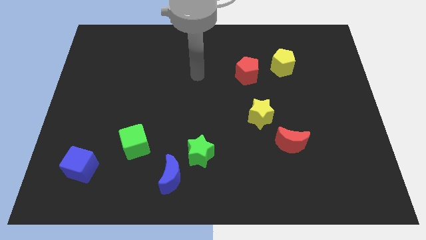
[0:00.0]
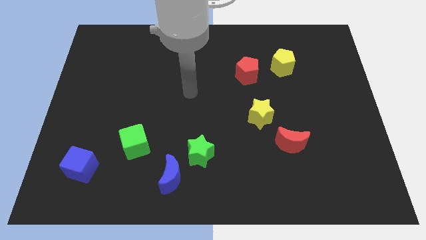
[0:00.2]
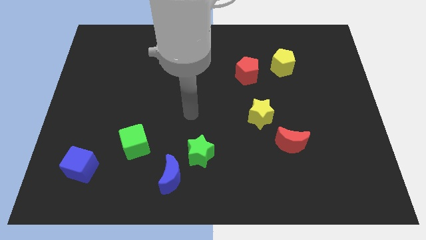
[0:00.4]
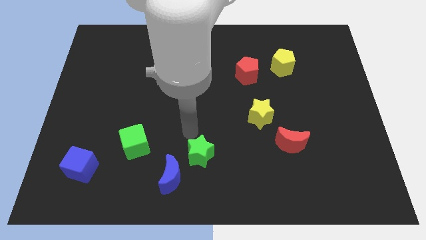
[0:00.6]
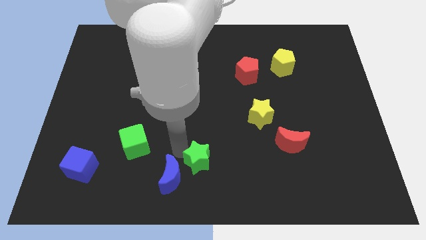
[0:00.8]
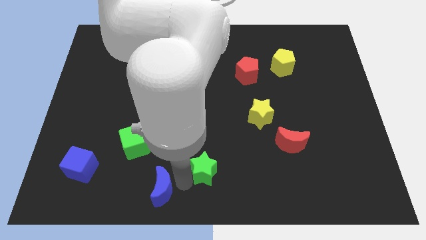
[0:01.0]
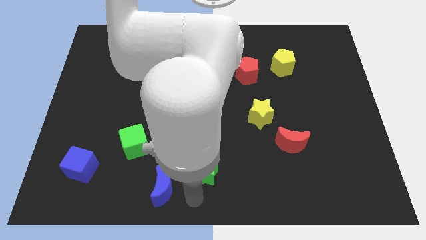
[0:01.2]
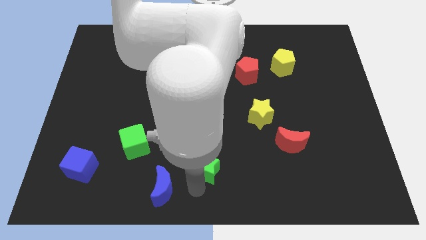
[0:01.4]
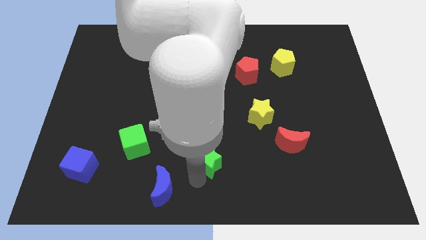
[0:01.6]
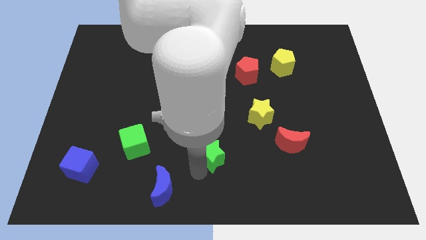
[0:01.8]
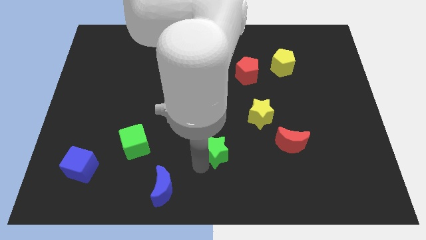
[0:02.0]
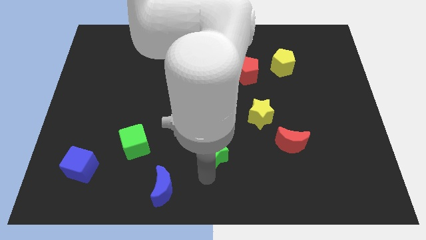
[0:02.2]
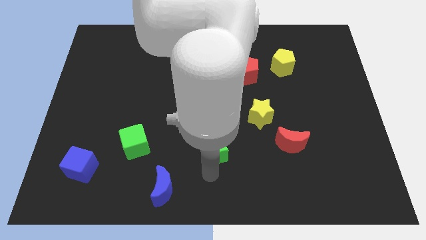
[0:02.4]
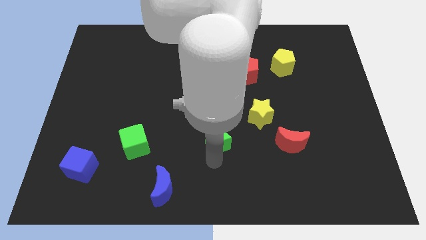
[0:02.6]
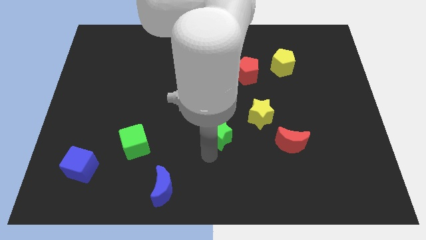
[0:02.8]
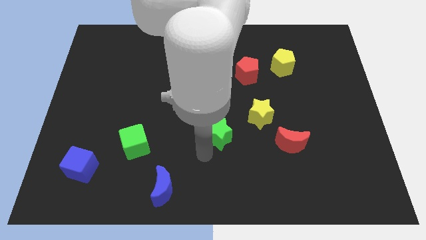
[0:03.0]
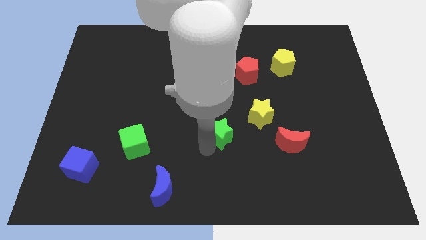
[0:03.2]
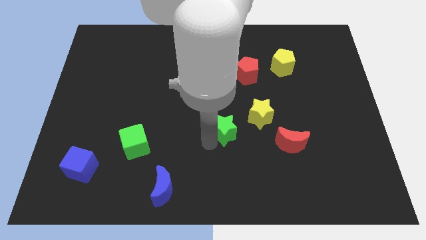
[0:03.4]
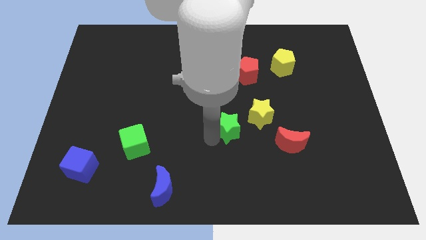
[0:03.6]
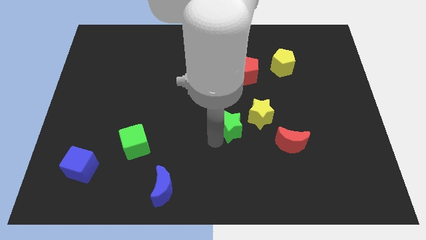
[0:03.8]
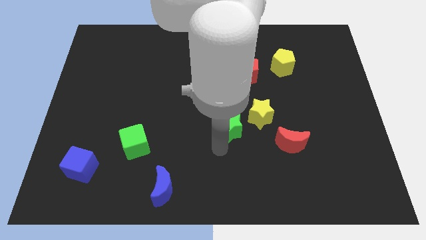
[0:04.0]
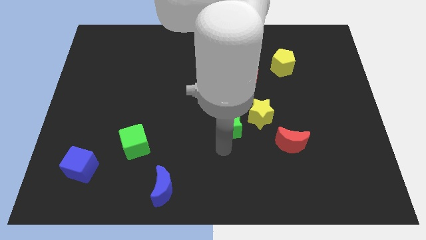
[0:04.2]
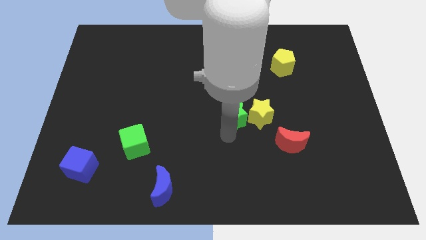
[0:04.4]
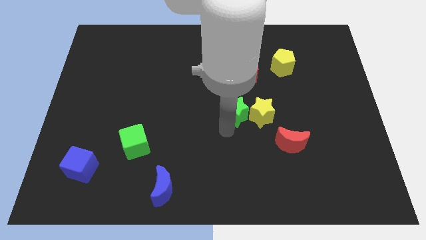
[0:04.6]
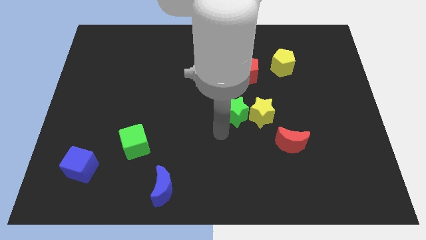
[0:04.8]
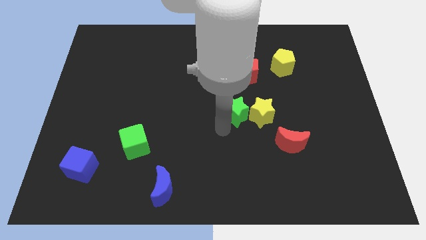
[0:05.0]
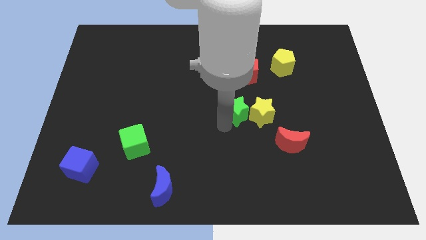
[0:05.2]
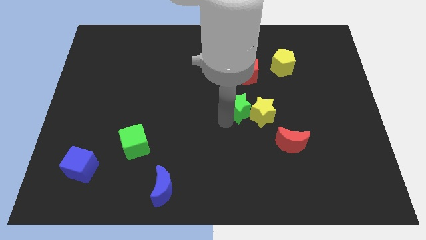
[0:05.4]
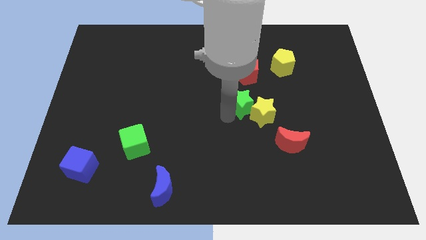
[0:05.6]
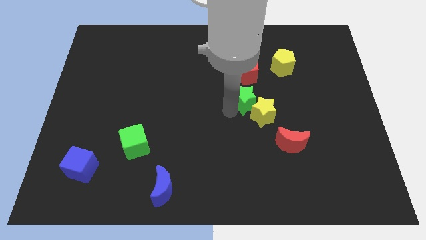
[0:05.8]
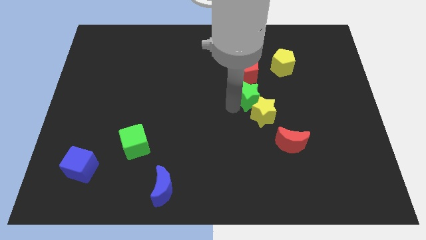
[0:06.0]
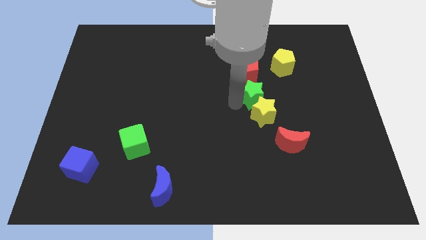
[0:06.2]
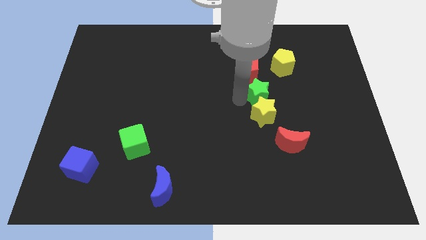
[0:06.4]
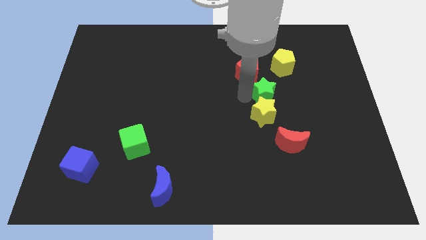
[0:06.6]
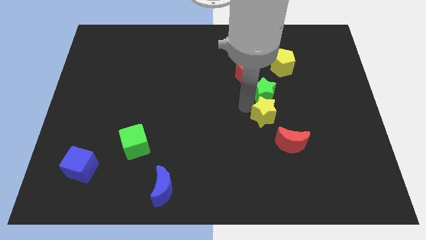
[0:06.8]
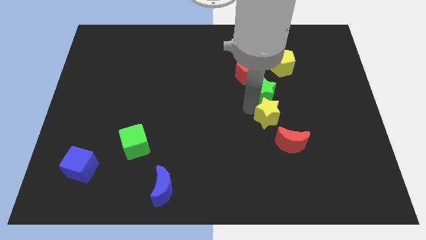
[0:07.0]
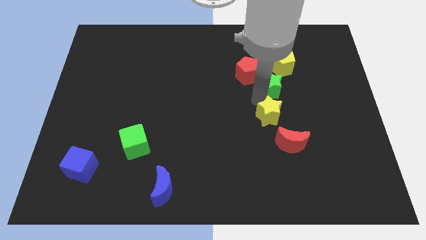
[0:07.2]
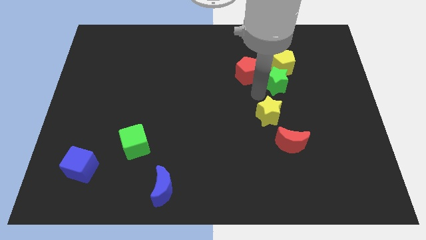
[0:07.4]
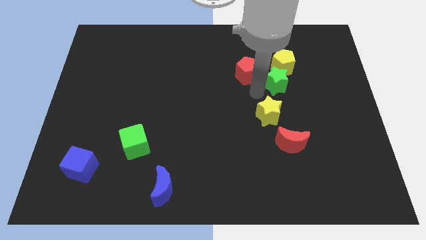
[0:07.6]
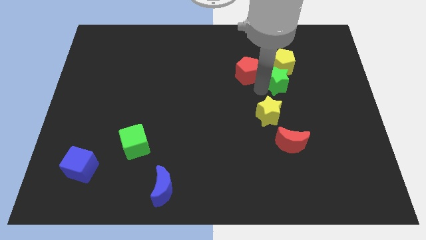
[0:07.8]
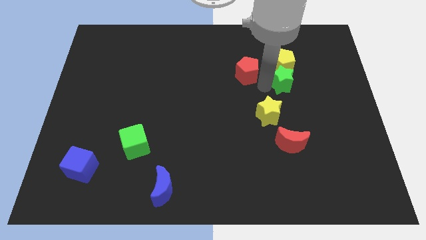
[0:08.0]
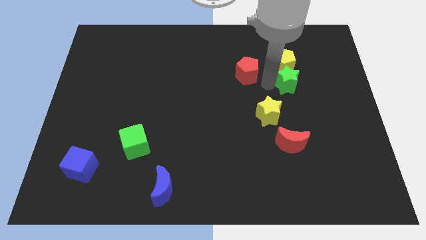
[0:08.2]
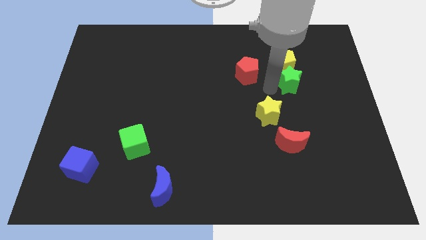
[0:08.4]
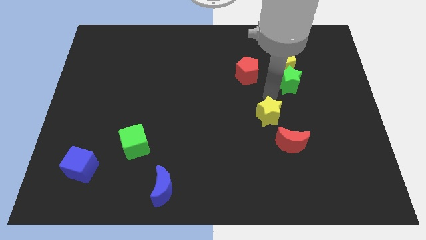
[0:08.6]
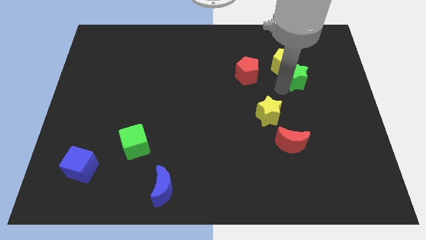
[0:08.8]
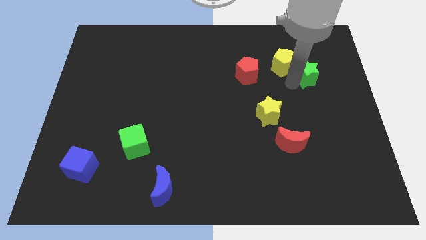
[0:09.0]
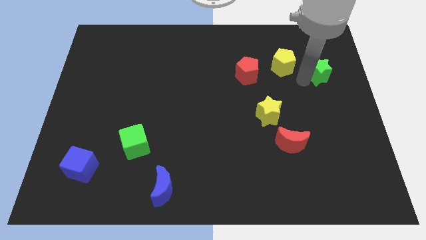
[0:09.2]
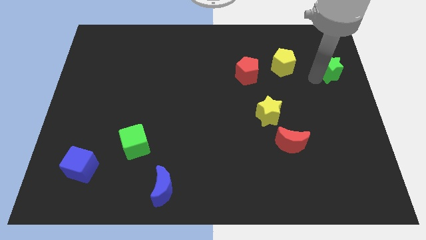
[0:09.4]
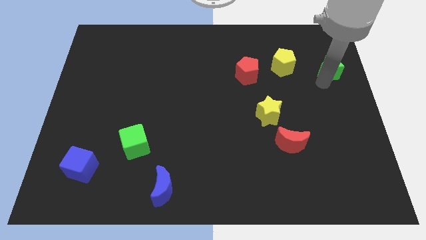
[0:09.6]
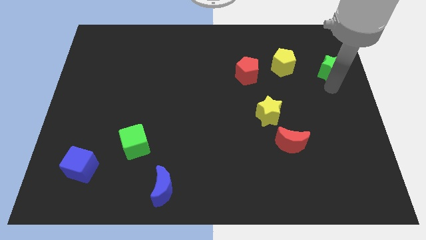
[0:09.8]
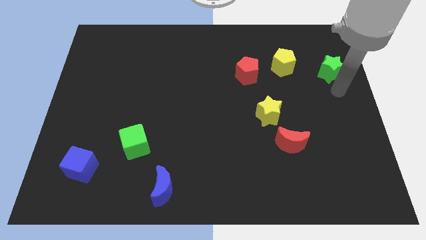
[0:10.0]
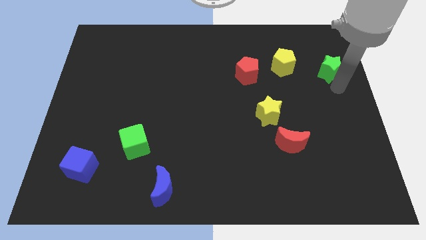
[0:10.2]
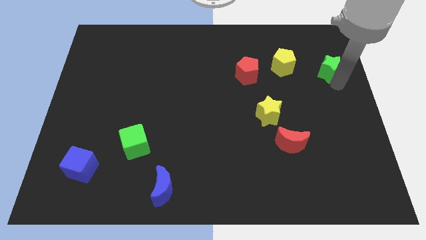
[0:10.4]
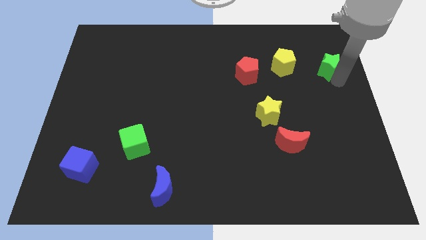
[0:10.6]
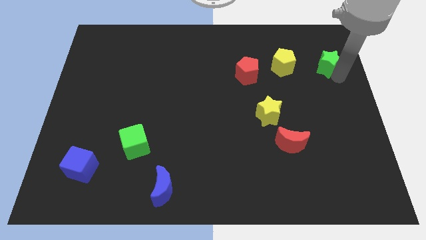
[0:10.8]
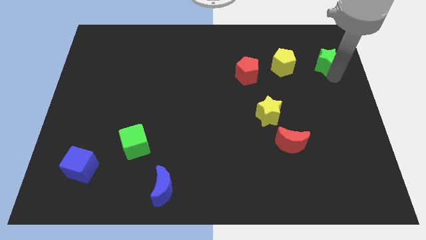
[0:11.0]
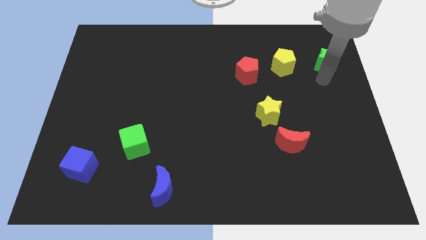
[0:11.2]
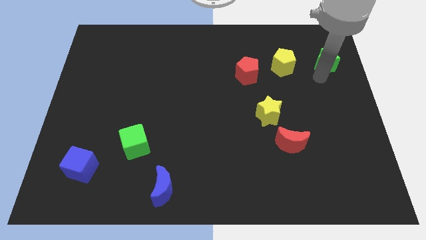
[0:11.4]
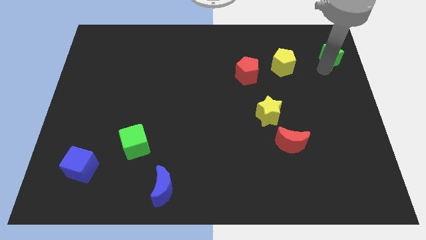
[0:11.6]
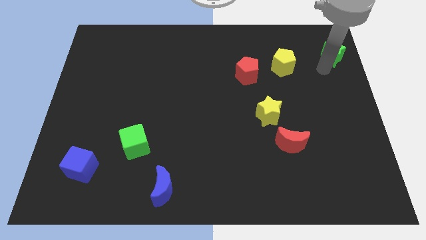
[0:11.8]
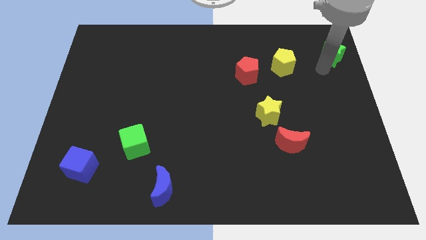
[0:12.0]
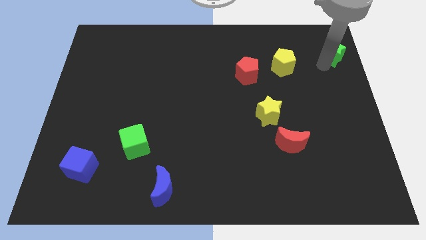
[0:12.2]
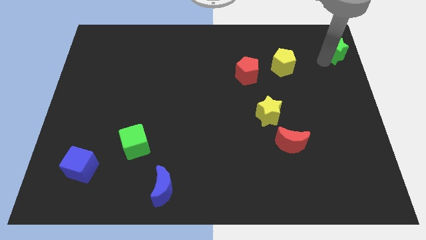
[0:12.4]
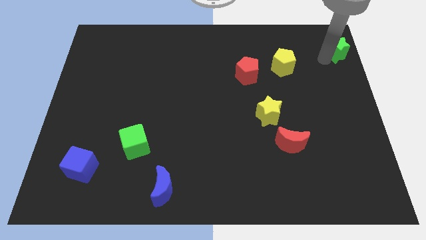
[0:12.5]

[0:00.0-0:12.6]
move the green star to the top right of the board

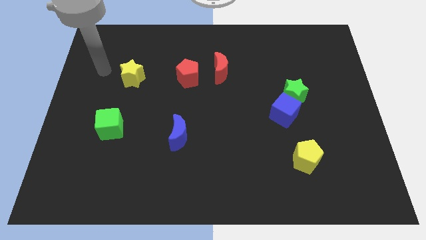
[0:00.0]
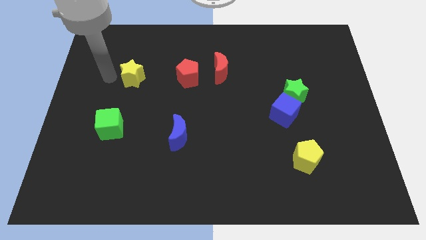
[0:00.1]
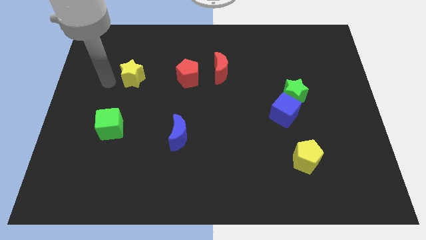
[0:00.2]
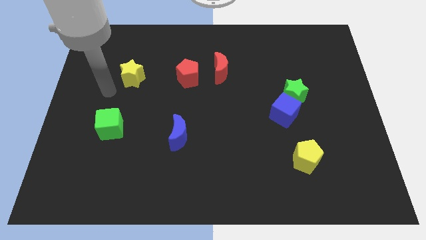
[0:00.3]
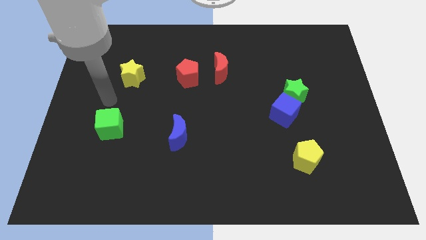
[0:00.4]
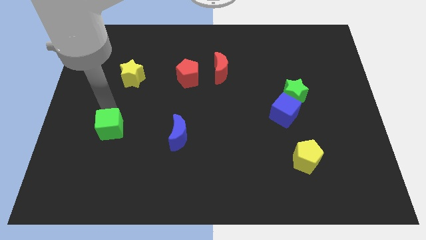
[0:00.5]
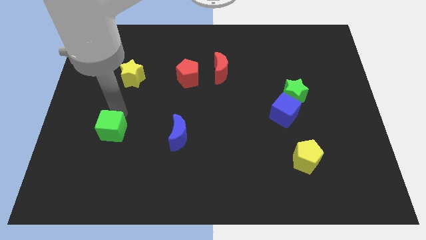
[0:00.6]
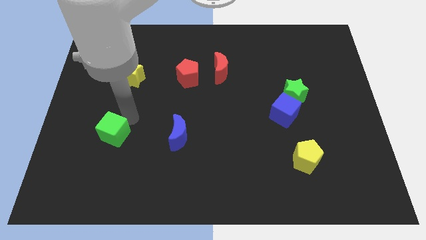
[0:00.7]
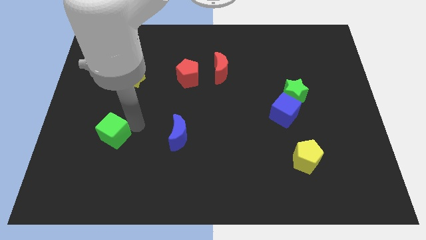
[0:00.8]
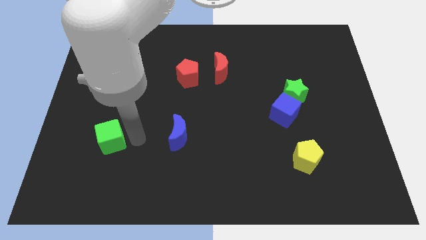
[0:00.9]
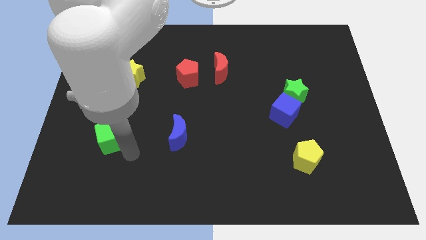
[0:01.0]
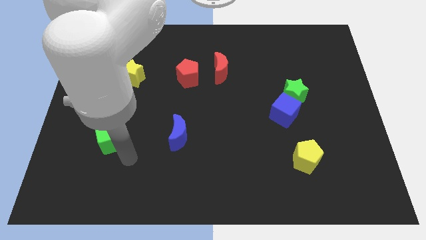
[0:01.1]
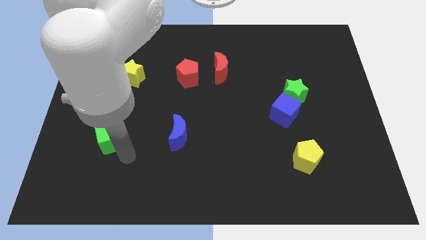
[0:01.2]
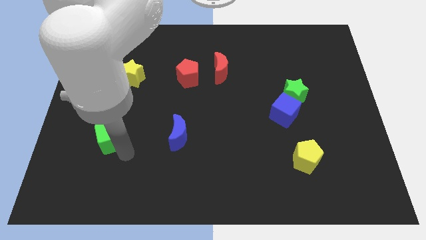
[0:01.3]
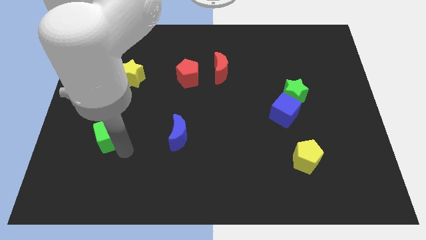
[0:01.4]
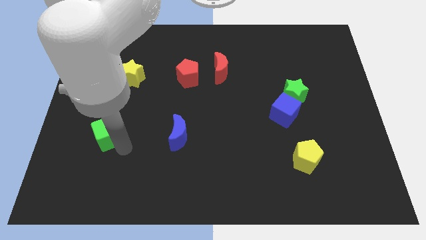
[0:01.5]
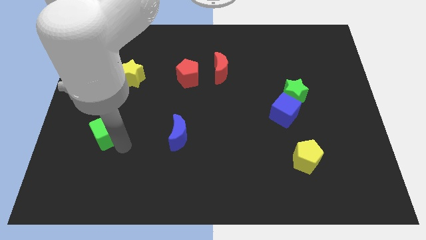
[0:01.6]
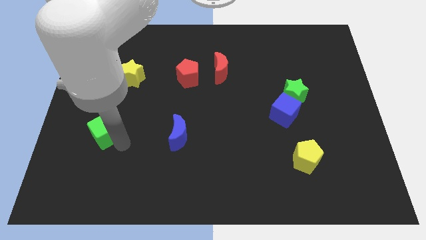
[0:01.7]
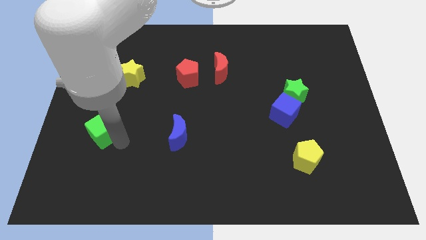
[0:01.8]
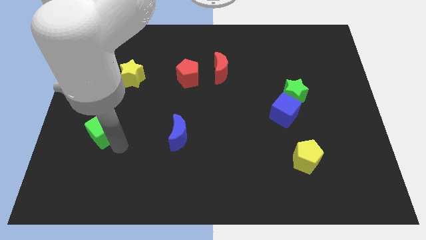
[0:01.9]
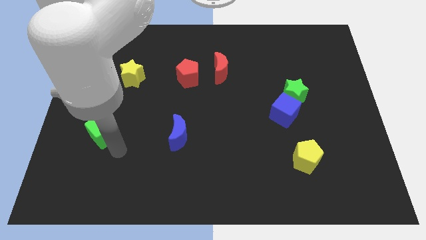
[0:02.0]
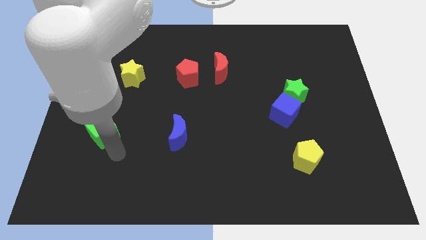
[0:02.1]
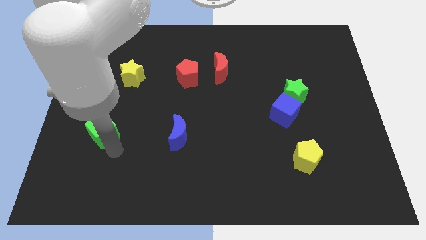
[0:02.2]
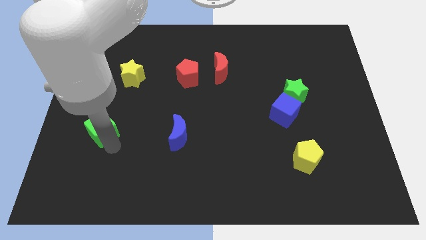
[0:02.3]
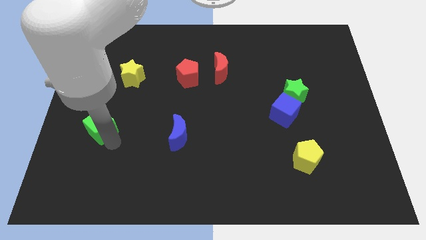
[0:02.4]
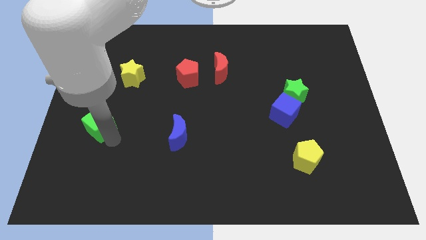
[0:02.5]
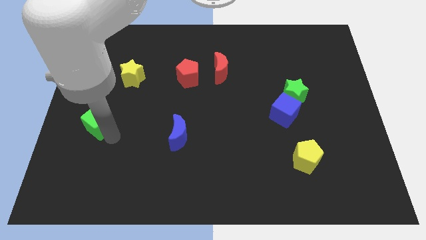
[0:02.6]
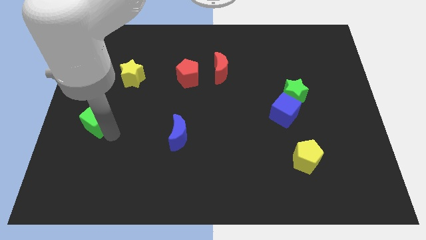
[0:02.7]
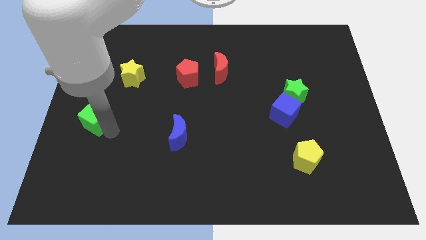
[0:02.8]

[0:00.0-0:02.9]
move the green cube to the left side of the board
